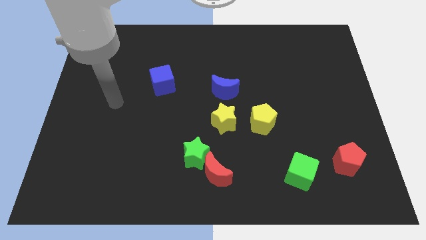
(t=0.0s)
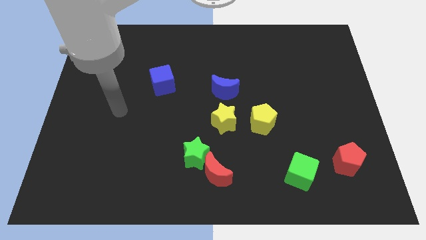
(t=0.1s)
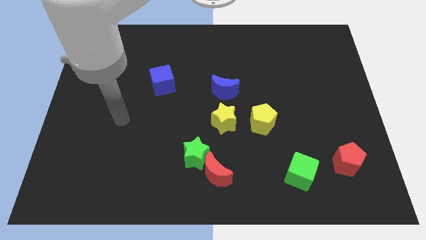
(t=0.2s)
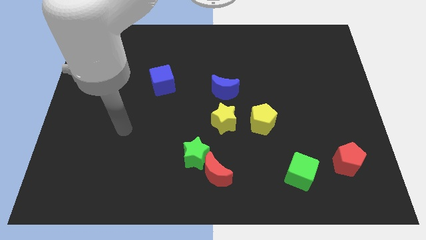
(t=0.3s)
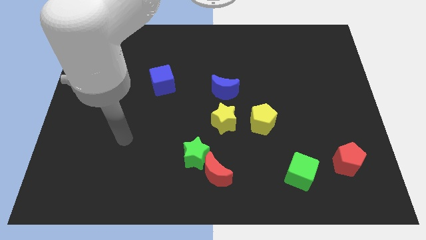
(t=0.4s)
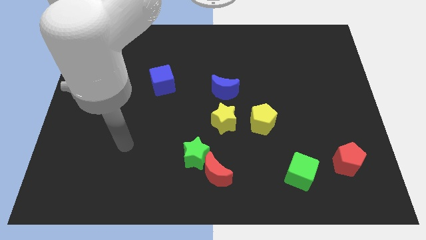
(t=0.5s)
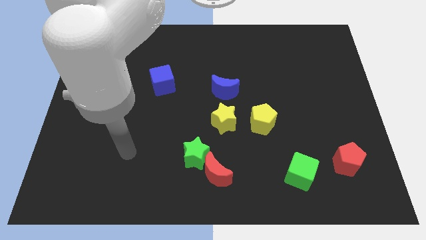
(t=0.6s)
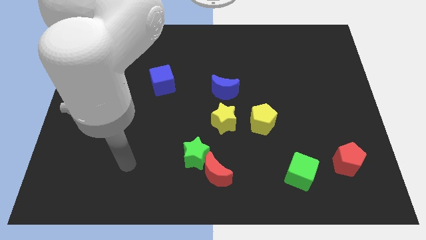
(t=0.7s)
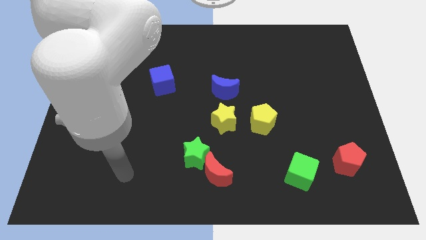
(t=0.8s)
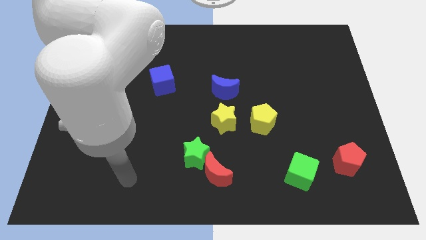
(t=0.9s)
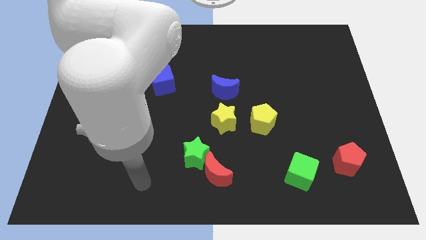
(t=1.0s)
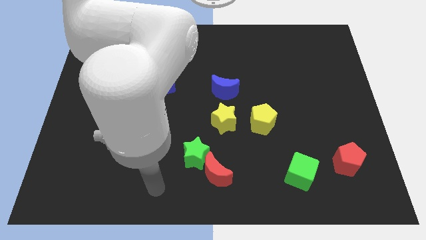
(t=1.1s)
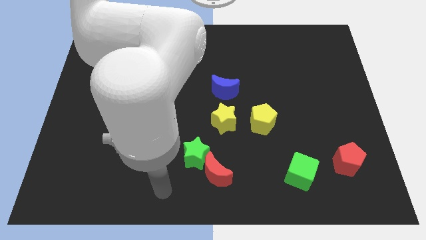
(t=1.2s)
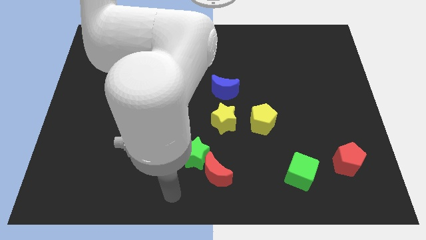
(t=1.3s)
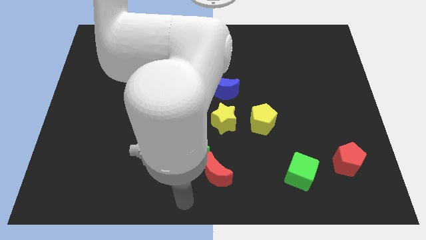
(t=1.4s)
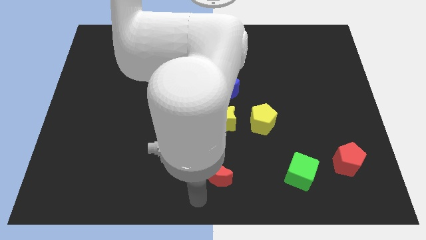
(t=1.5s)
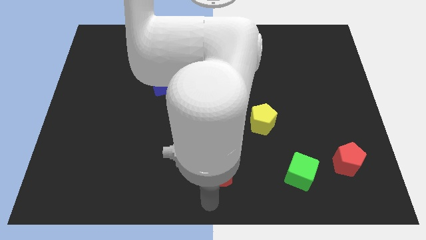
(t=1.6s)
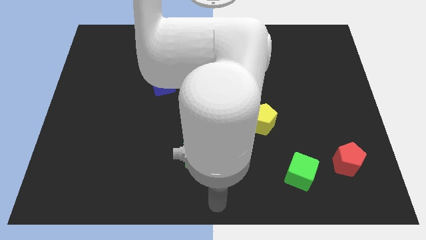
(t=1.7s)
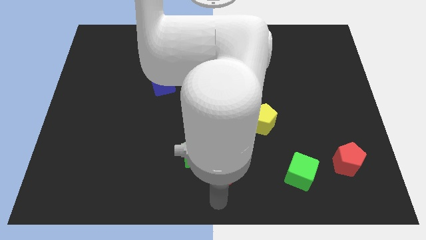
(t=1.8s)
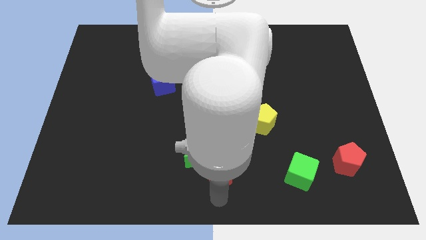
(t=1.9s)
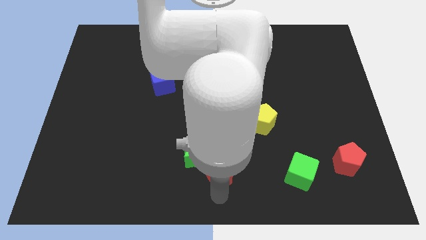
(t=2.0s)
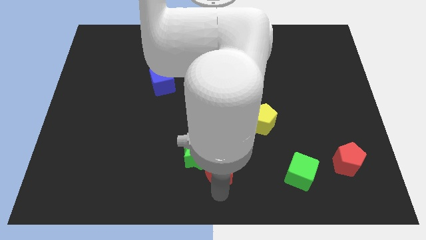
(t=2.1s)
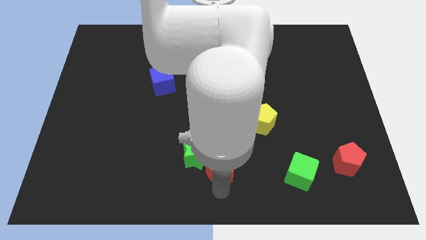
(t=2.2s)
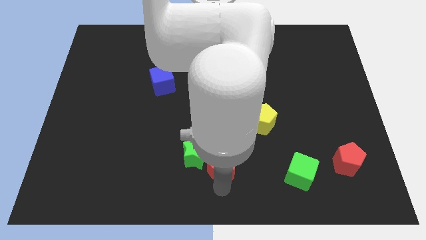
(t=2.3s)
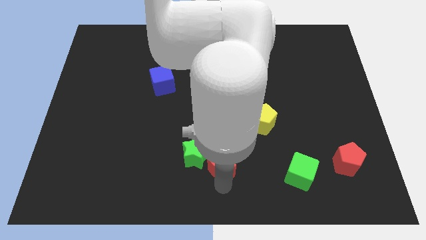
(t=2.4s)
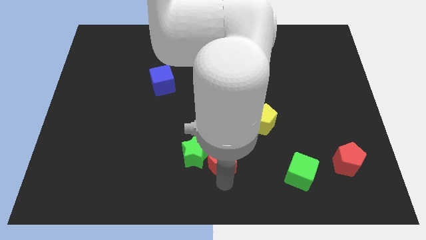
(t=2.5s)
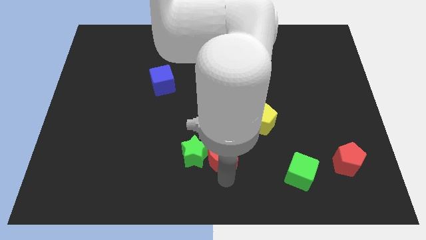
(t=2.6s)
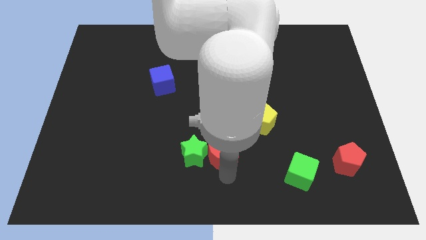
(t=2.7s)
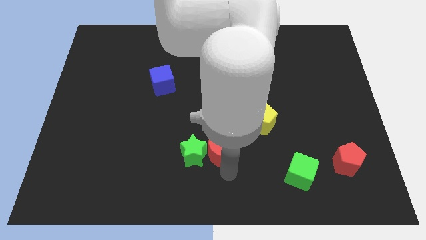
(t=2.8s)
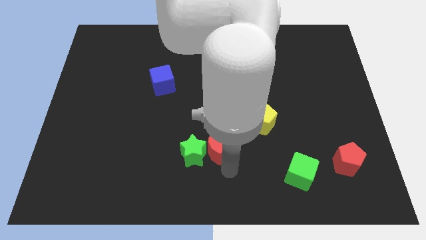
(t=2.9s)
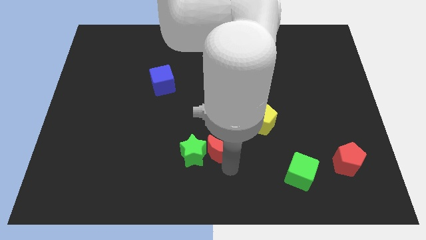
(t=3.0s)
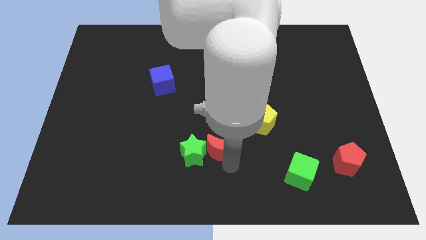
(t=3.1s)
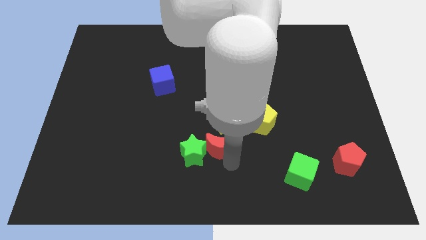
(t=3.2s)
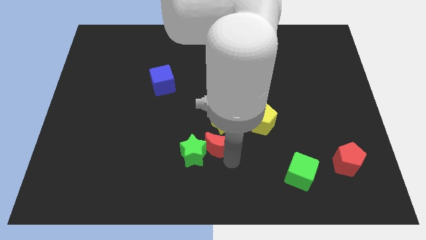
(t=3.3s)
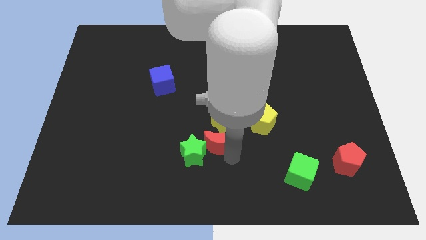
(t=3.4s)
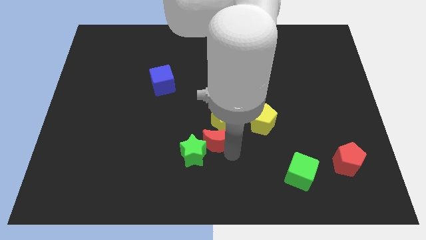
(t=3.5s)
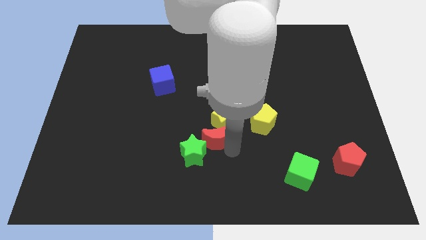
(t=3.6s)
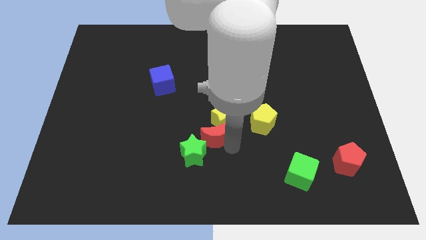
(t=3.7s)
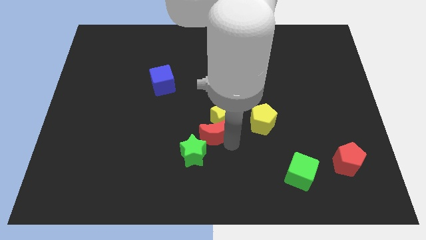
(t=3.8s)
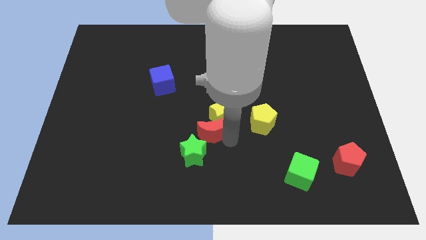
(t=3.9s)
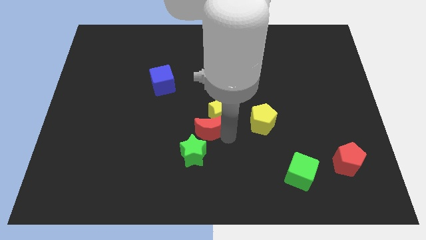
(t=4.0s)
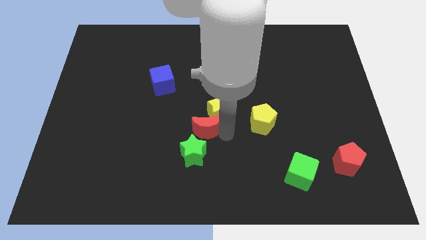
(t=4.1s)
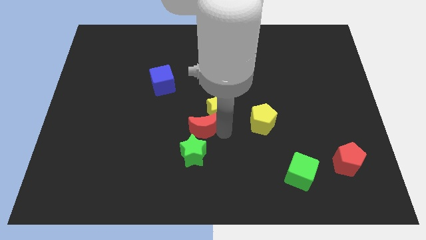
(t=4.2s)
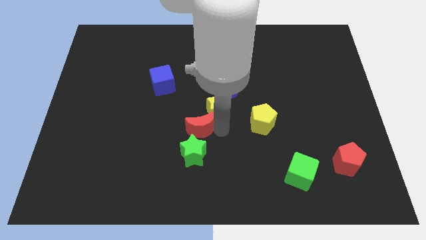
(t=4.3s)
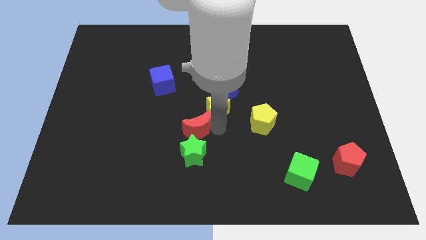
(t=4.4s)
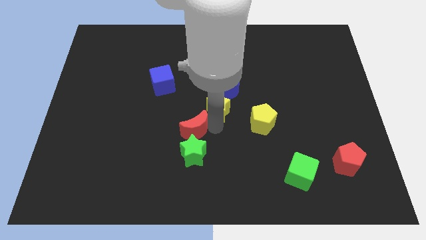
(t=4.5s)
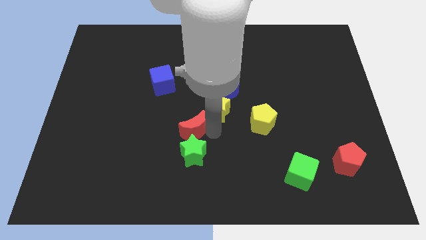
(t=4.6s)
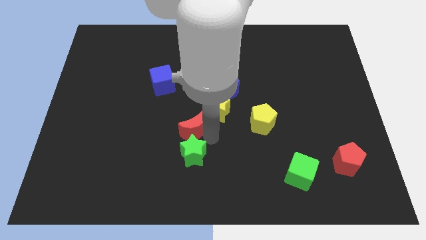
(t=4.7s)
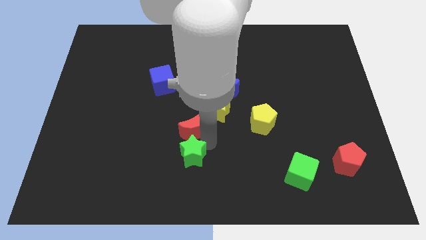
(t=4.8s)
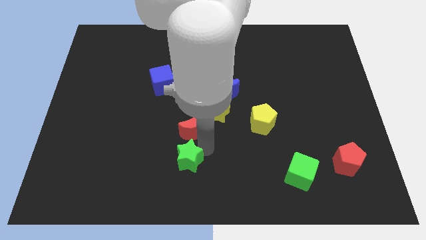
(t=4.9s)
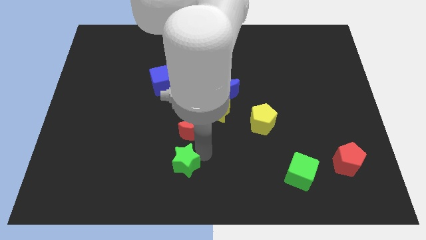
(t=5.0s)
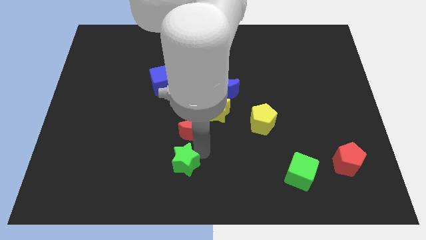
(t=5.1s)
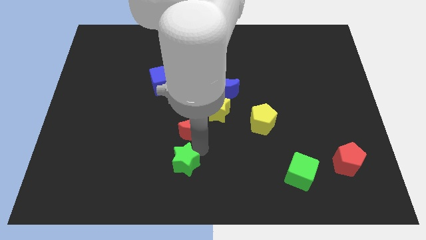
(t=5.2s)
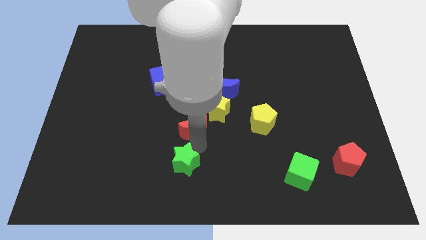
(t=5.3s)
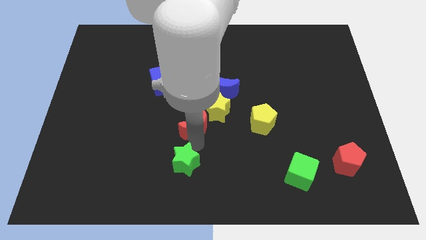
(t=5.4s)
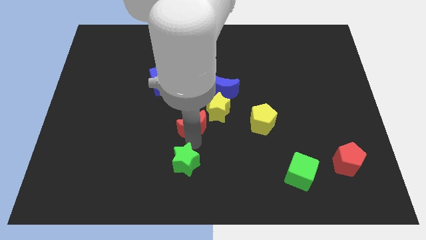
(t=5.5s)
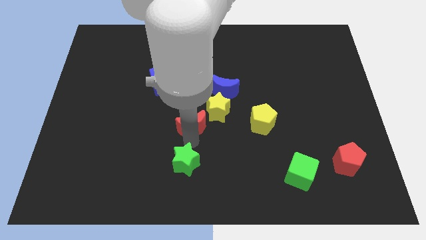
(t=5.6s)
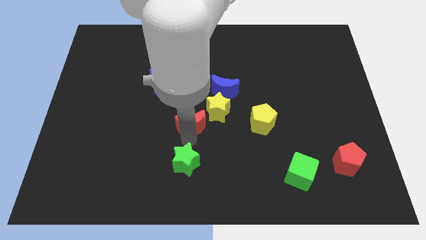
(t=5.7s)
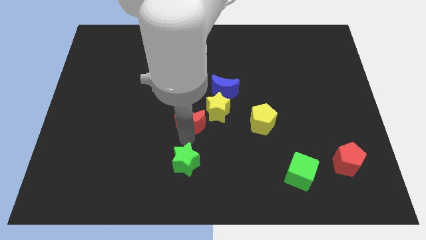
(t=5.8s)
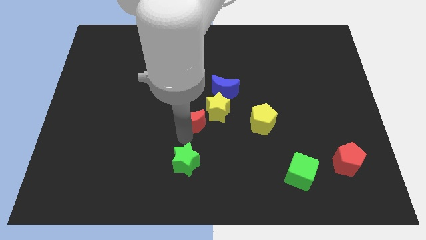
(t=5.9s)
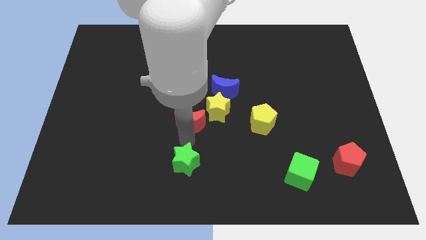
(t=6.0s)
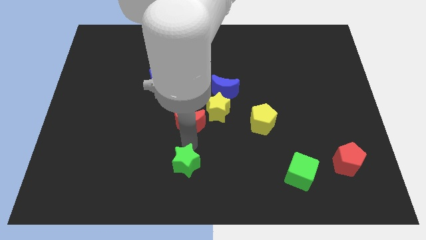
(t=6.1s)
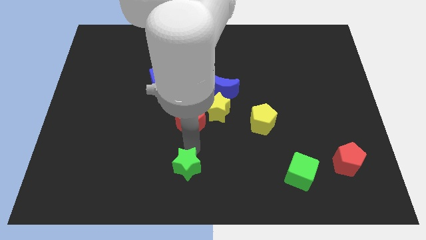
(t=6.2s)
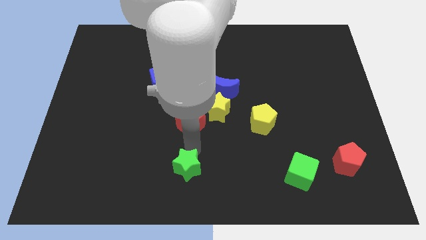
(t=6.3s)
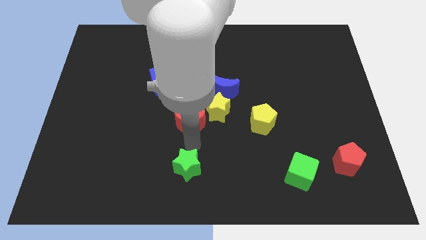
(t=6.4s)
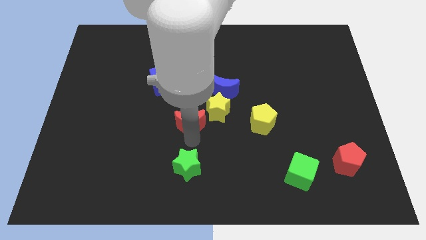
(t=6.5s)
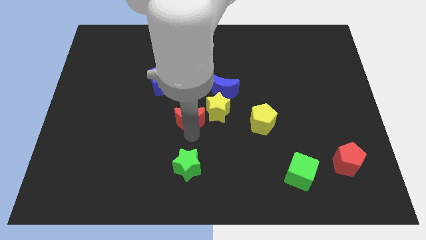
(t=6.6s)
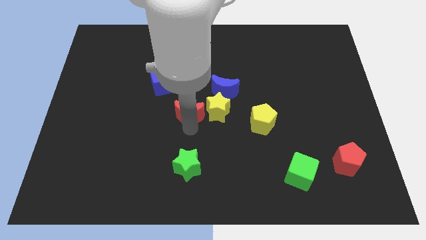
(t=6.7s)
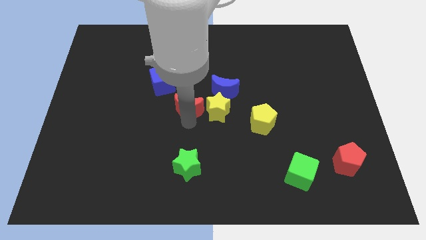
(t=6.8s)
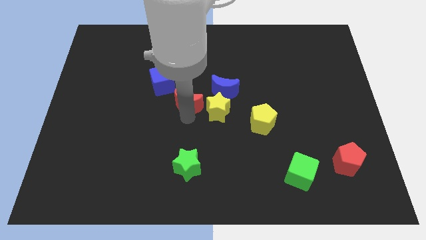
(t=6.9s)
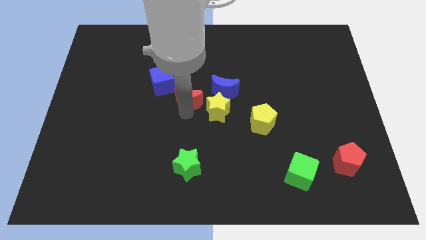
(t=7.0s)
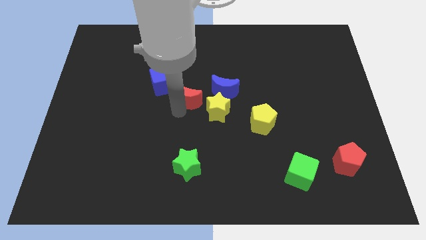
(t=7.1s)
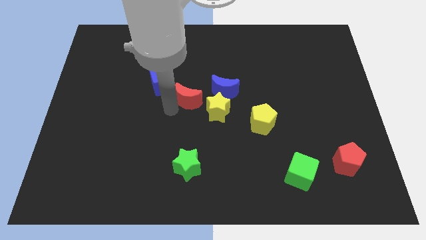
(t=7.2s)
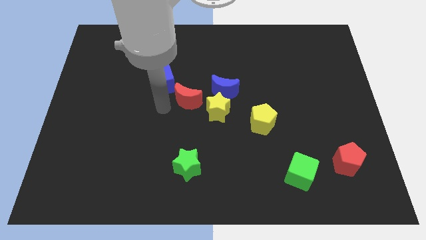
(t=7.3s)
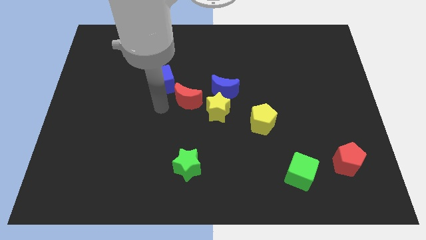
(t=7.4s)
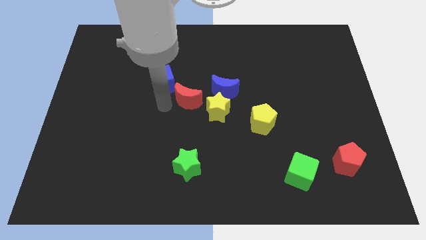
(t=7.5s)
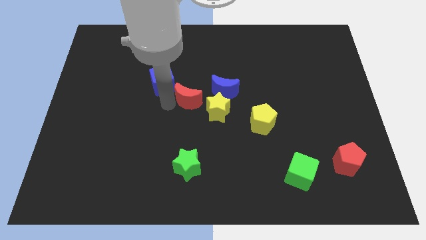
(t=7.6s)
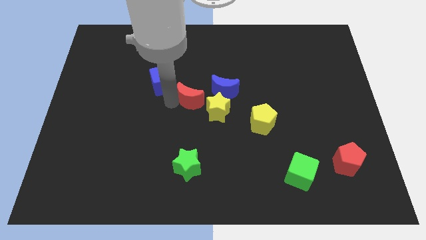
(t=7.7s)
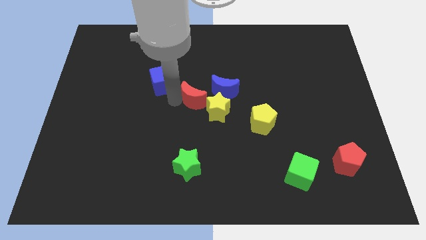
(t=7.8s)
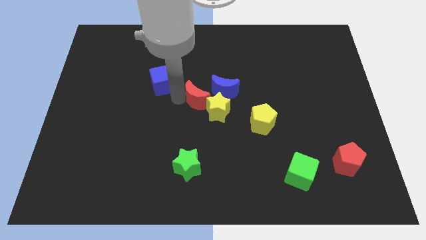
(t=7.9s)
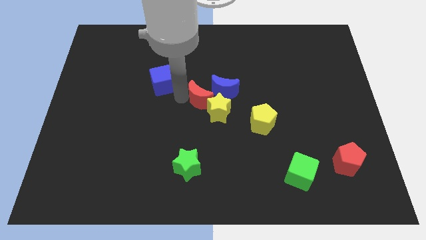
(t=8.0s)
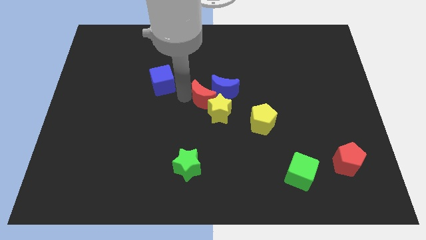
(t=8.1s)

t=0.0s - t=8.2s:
push the red moon to the blue moon
